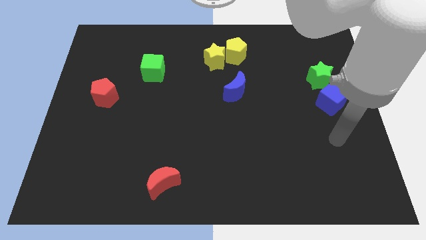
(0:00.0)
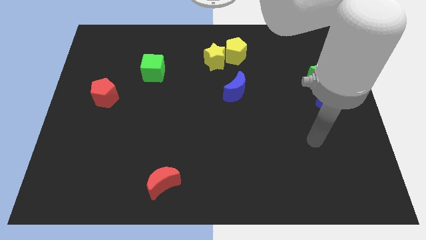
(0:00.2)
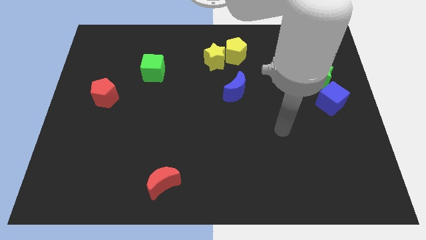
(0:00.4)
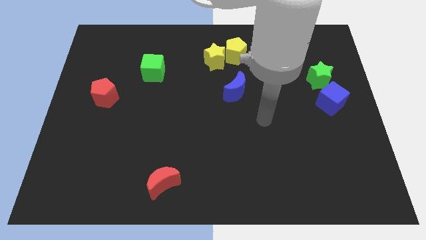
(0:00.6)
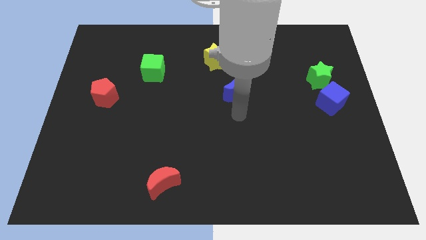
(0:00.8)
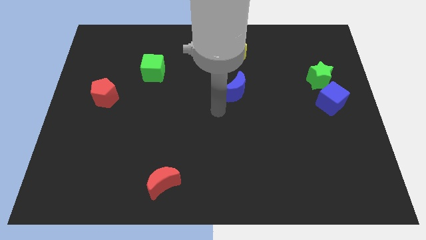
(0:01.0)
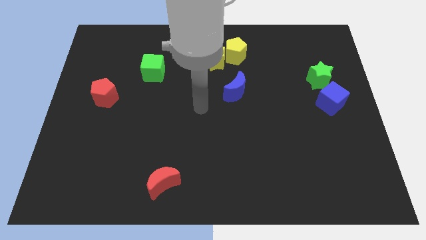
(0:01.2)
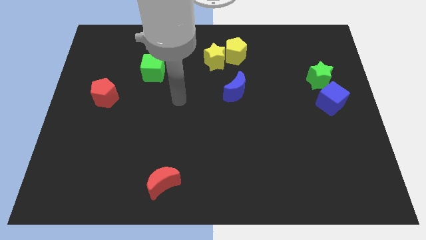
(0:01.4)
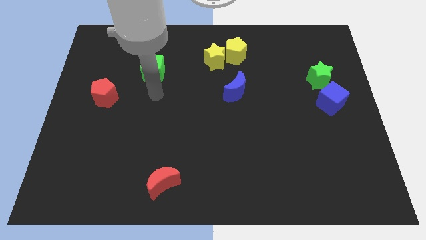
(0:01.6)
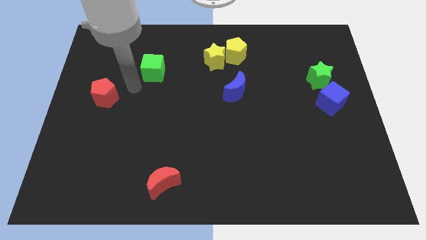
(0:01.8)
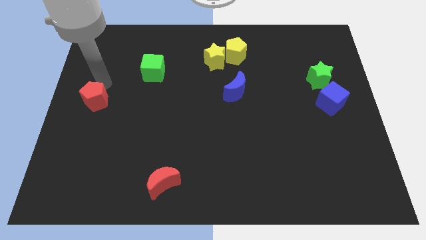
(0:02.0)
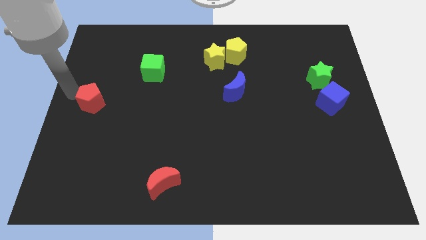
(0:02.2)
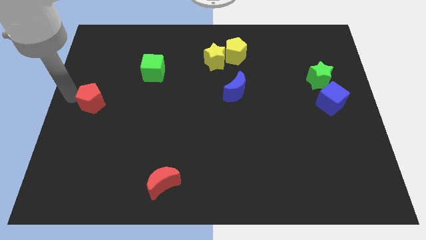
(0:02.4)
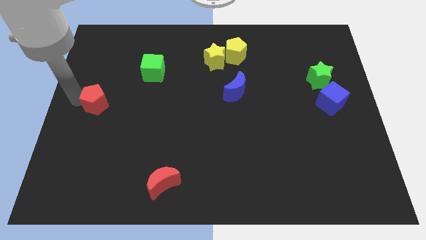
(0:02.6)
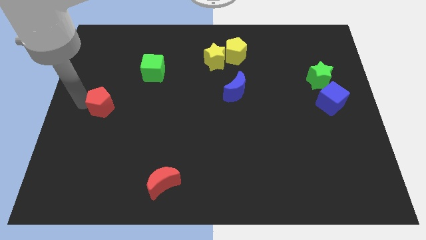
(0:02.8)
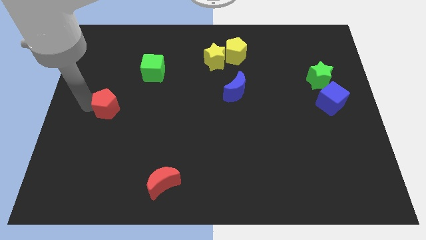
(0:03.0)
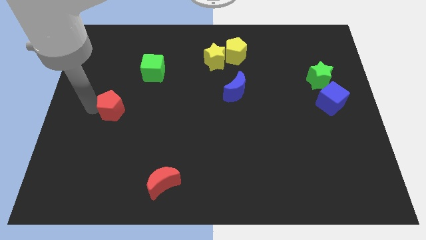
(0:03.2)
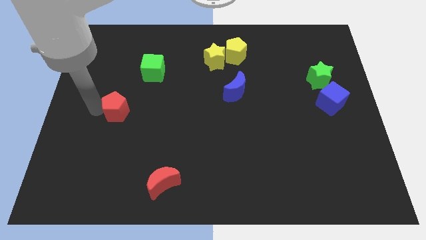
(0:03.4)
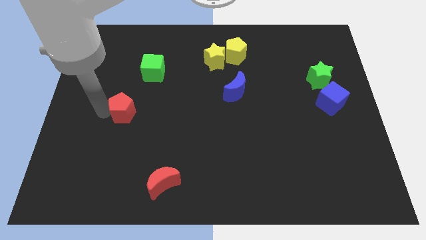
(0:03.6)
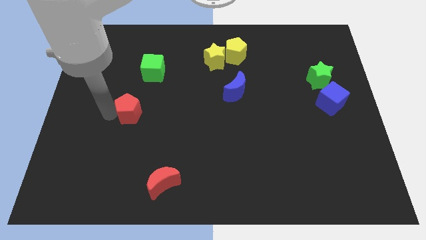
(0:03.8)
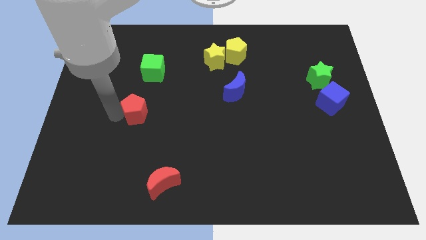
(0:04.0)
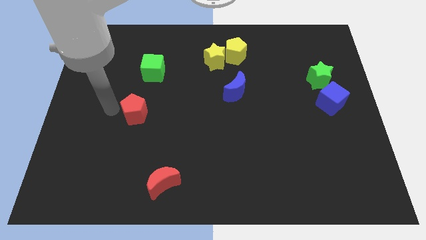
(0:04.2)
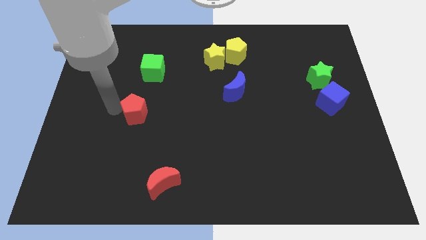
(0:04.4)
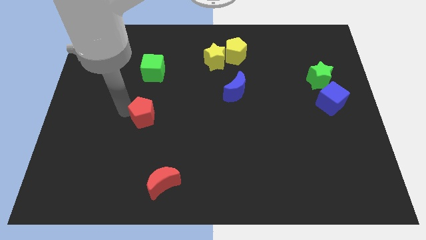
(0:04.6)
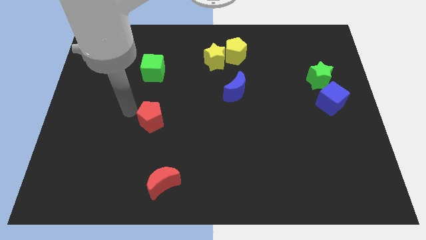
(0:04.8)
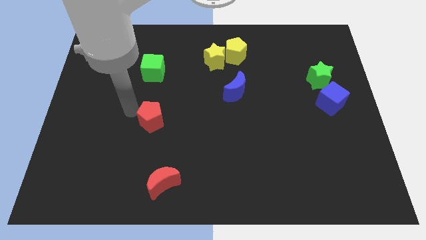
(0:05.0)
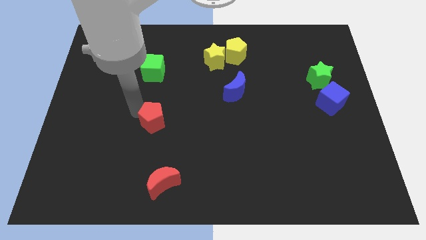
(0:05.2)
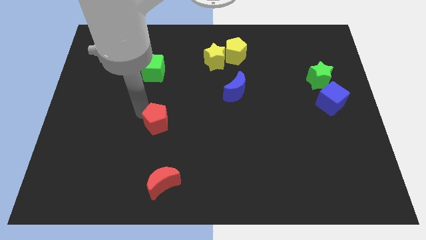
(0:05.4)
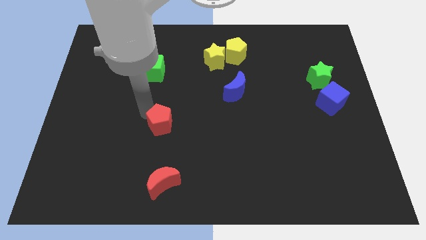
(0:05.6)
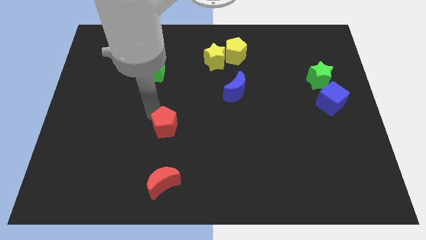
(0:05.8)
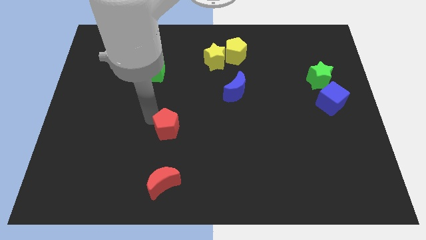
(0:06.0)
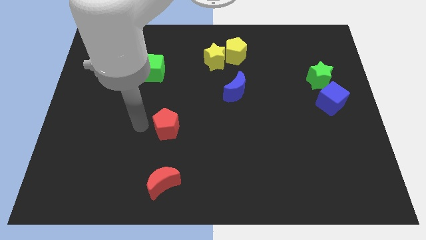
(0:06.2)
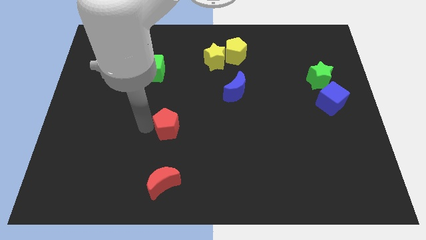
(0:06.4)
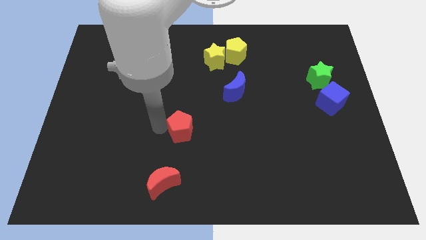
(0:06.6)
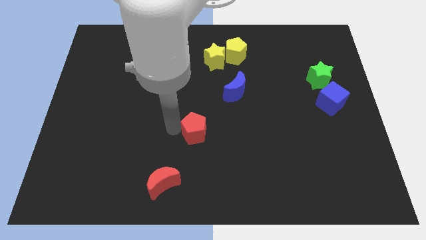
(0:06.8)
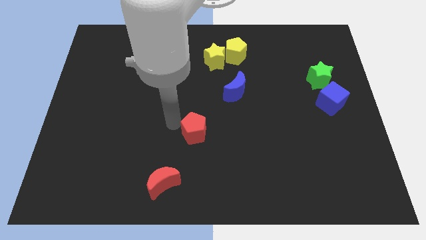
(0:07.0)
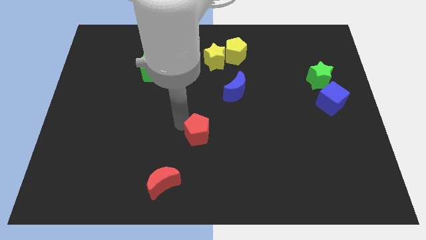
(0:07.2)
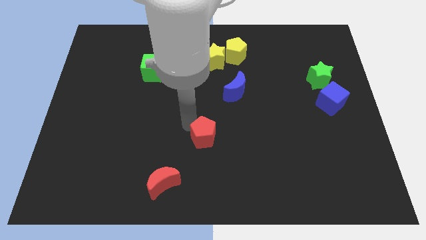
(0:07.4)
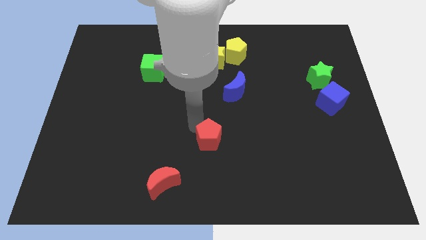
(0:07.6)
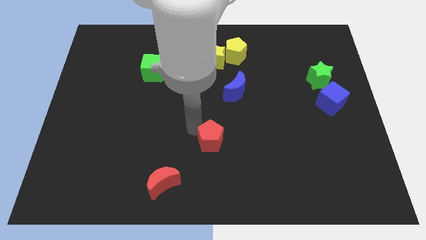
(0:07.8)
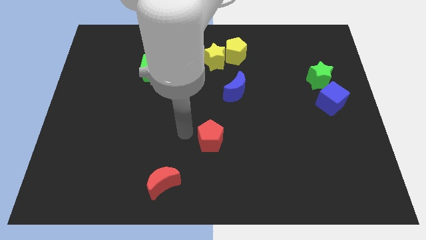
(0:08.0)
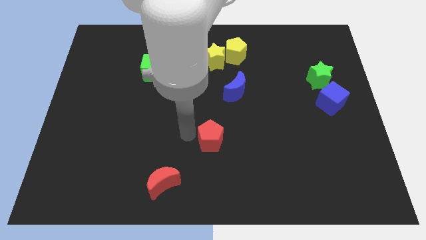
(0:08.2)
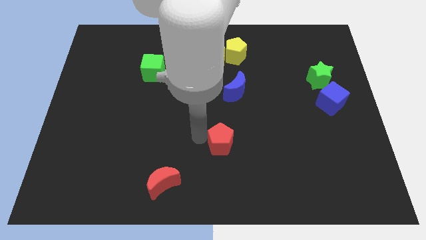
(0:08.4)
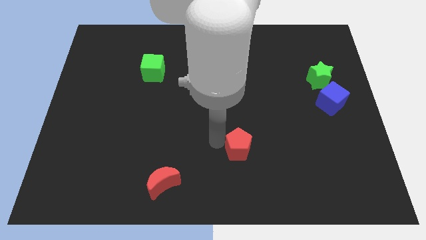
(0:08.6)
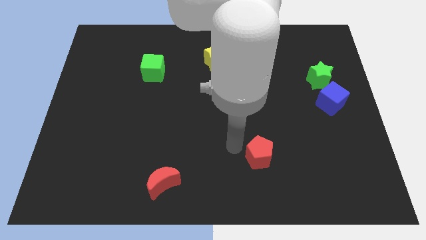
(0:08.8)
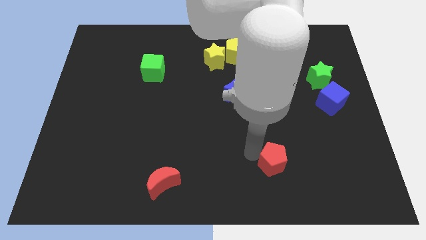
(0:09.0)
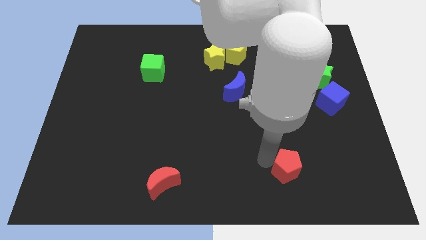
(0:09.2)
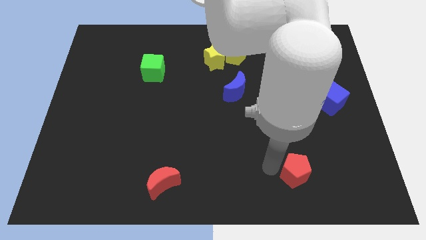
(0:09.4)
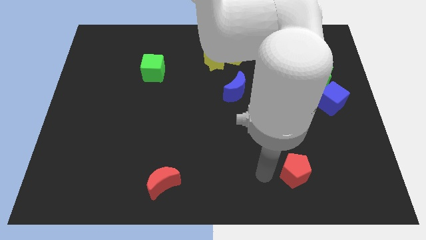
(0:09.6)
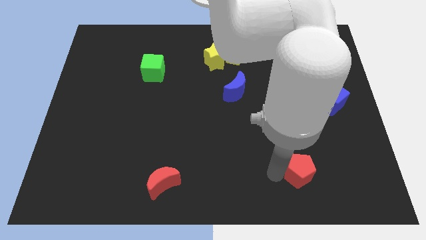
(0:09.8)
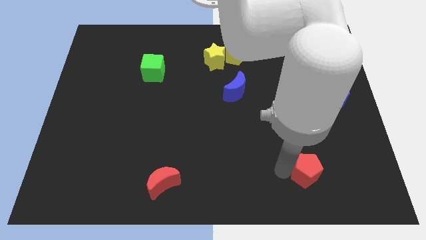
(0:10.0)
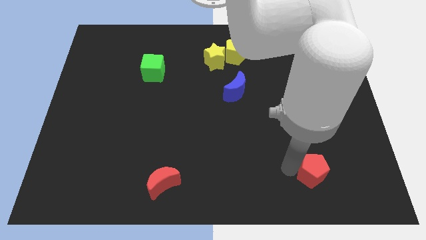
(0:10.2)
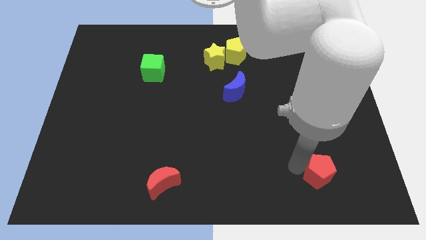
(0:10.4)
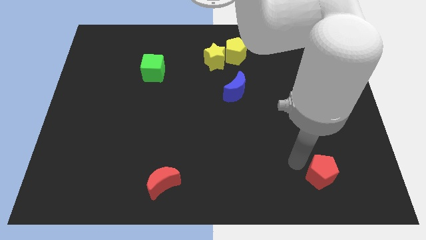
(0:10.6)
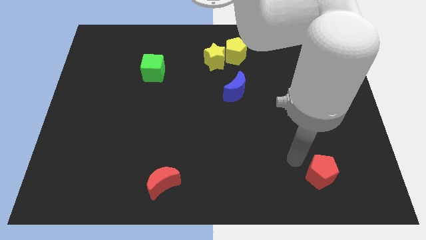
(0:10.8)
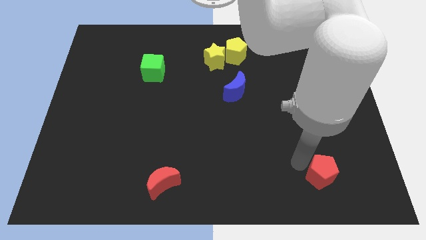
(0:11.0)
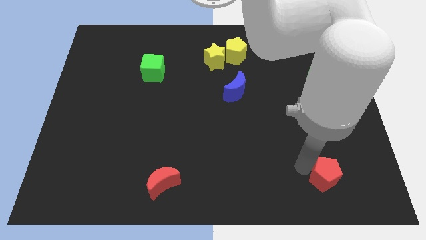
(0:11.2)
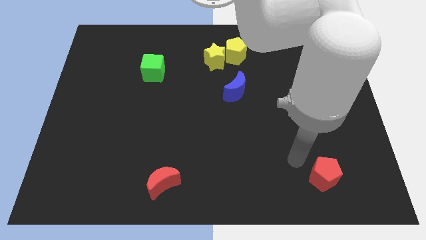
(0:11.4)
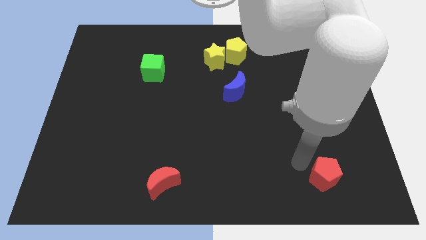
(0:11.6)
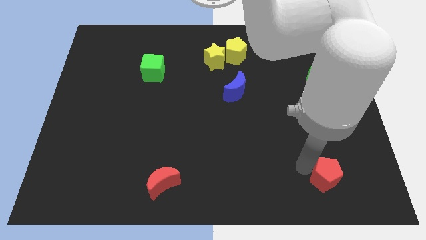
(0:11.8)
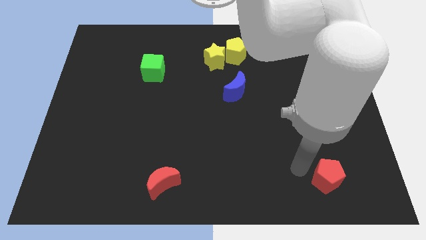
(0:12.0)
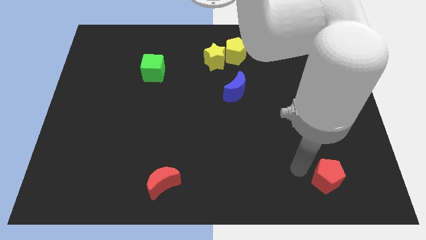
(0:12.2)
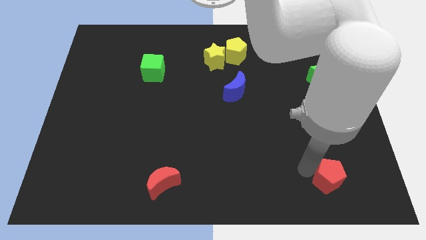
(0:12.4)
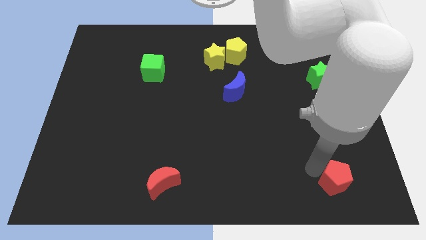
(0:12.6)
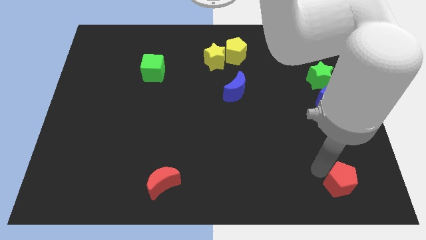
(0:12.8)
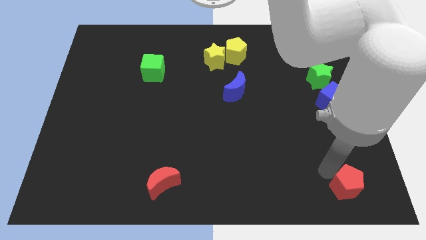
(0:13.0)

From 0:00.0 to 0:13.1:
slide the red pentagon to the bottom right corner

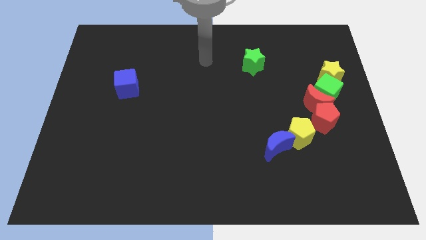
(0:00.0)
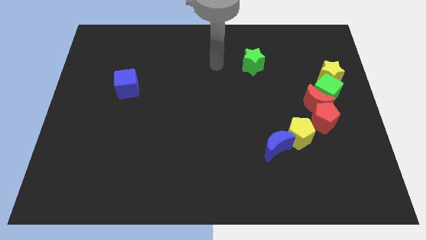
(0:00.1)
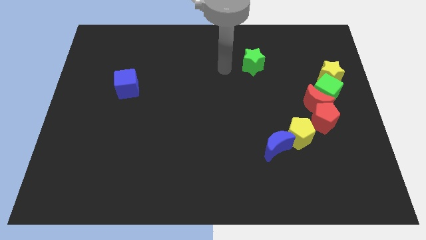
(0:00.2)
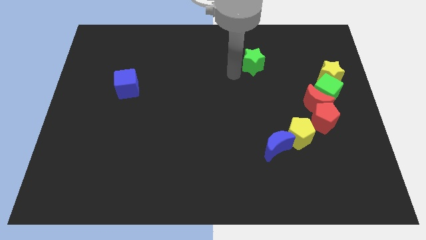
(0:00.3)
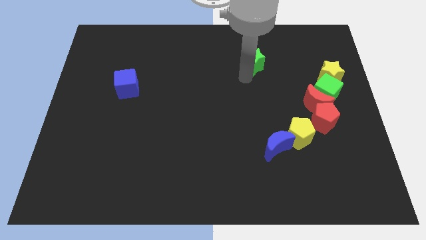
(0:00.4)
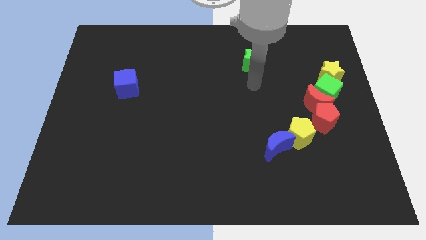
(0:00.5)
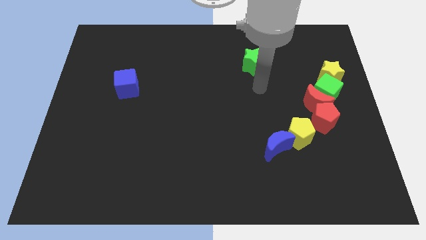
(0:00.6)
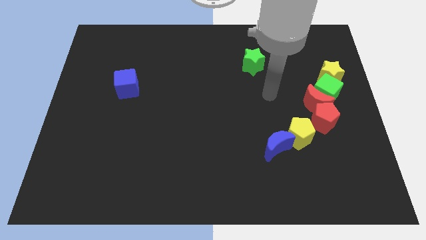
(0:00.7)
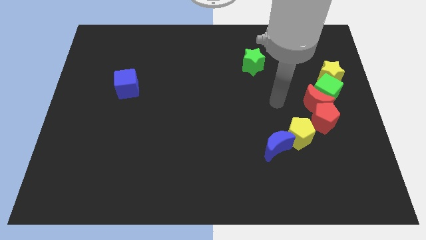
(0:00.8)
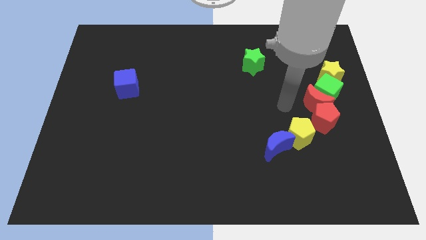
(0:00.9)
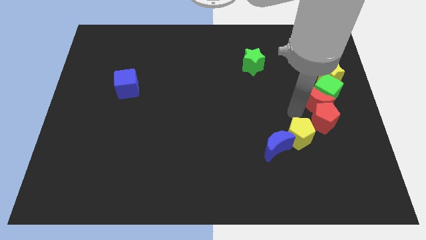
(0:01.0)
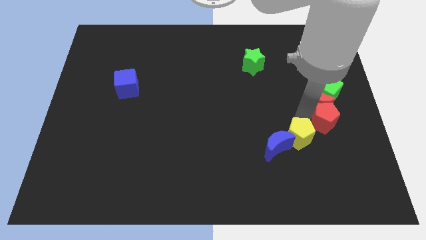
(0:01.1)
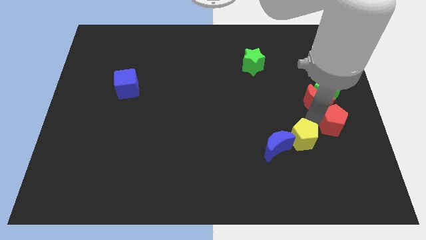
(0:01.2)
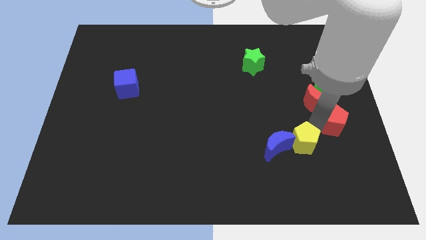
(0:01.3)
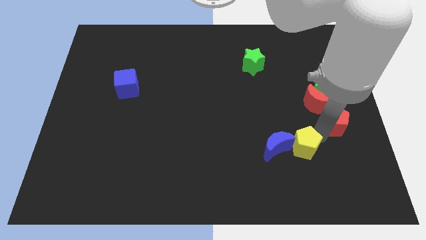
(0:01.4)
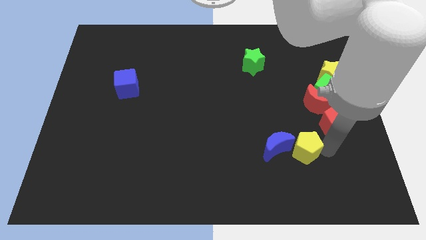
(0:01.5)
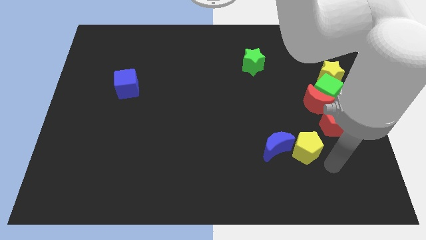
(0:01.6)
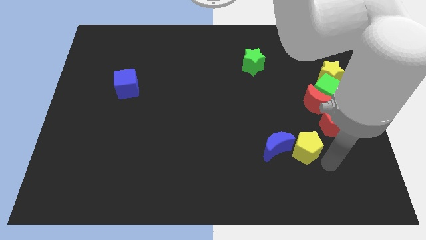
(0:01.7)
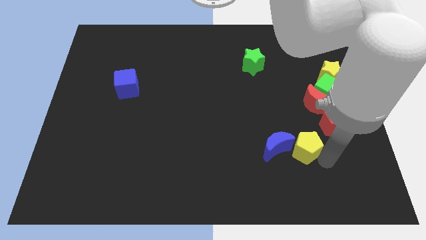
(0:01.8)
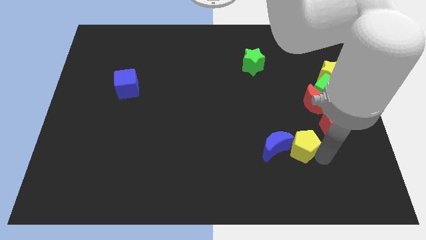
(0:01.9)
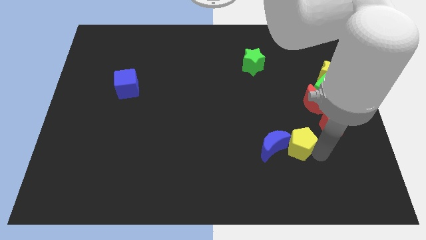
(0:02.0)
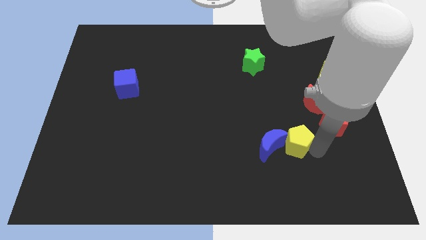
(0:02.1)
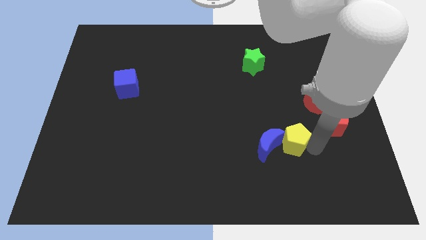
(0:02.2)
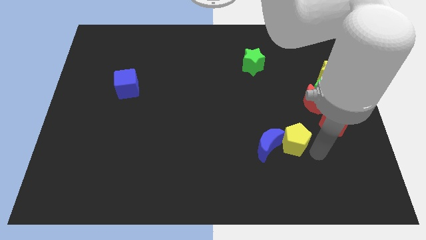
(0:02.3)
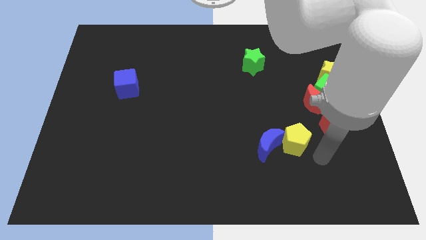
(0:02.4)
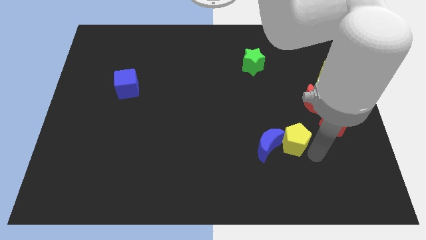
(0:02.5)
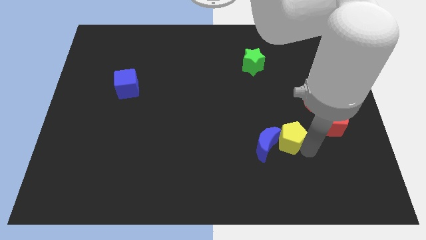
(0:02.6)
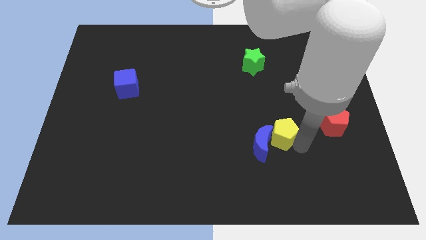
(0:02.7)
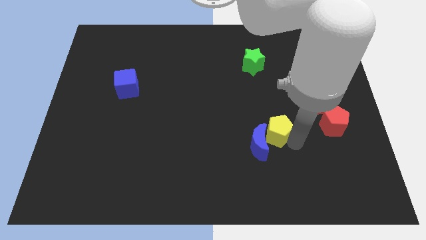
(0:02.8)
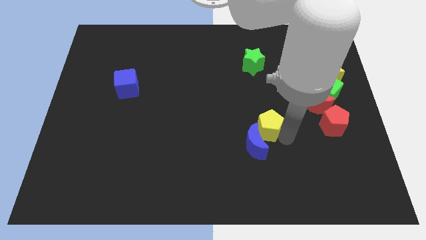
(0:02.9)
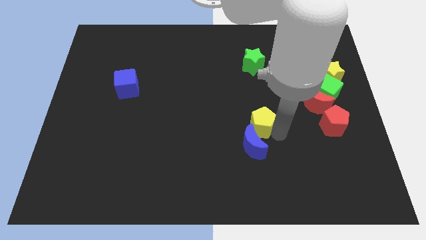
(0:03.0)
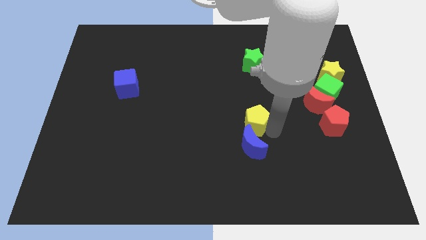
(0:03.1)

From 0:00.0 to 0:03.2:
slide the yellow pentagon to the middle of the board
